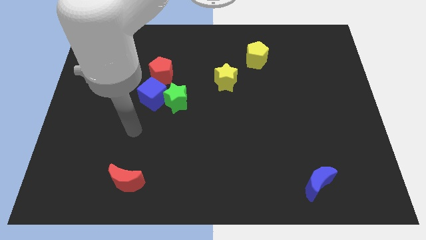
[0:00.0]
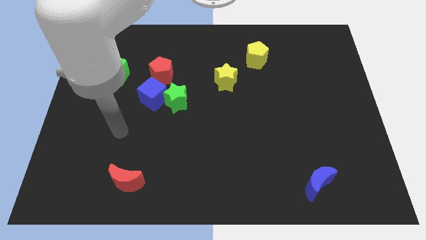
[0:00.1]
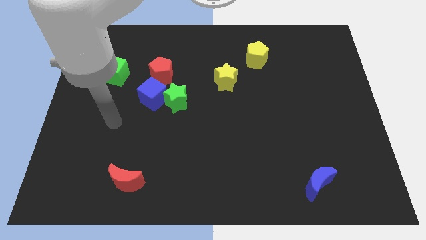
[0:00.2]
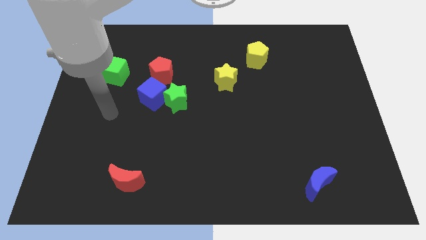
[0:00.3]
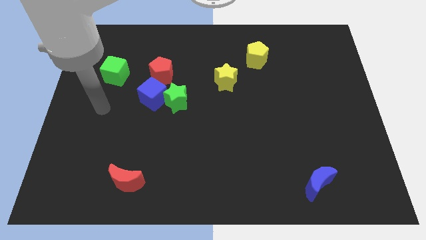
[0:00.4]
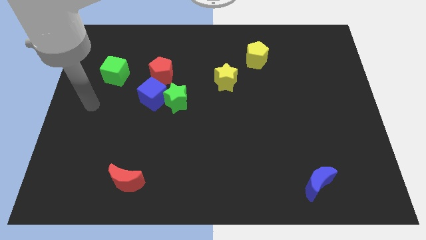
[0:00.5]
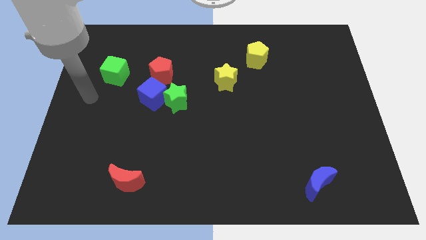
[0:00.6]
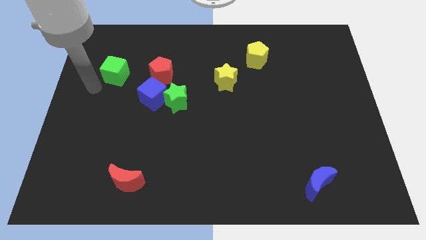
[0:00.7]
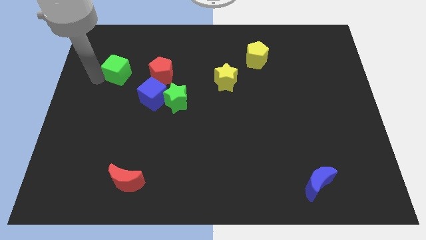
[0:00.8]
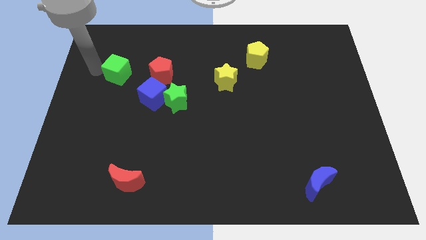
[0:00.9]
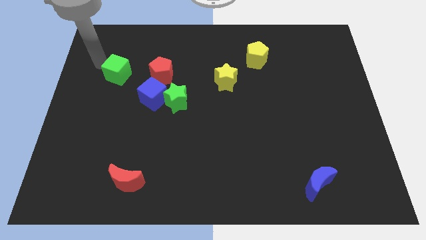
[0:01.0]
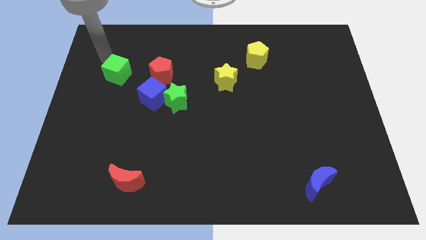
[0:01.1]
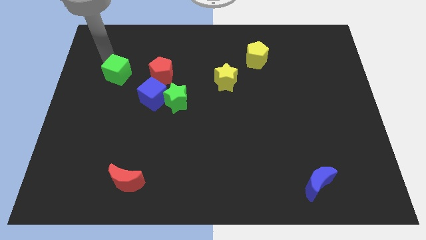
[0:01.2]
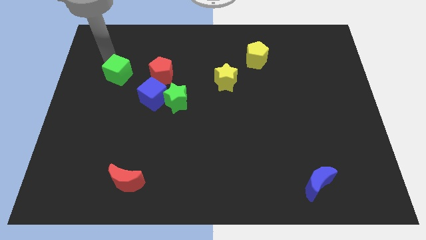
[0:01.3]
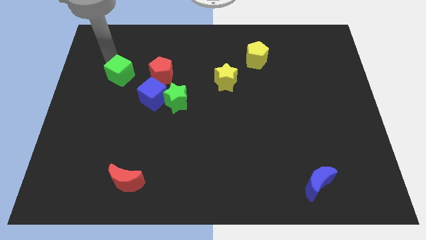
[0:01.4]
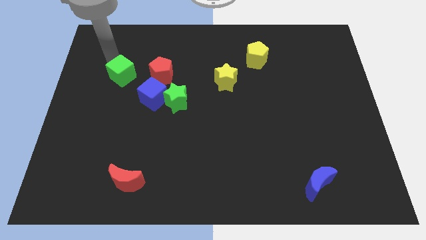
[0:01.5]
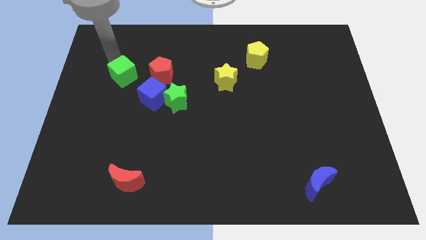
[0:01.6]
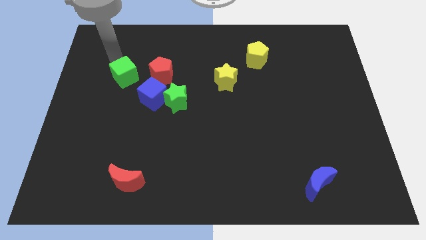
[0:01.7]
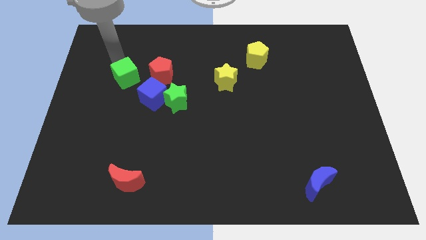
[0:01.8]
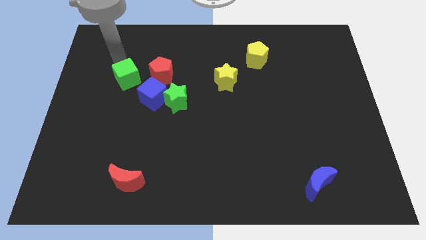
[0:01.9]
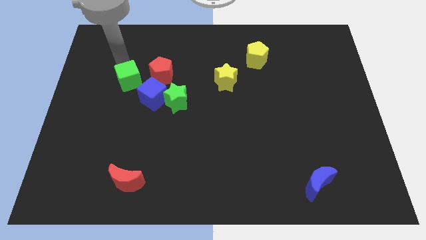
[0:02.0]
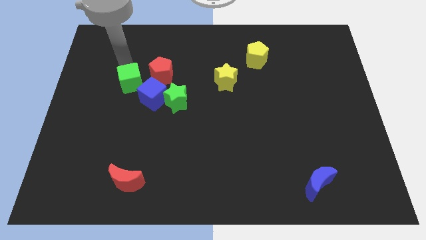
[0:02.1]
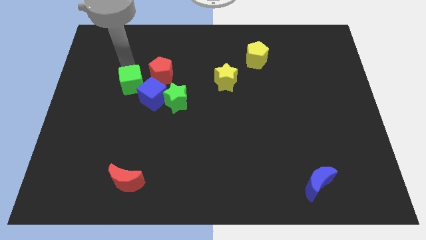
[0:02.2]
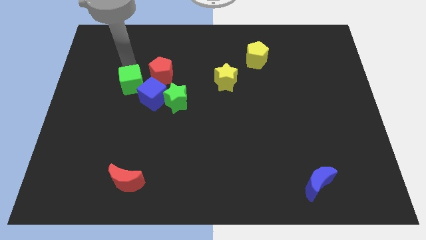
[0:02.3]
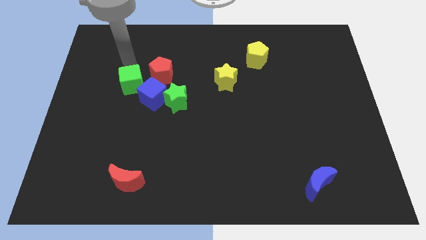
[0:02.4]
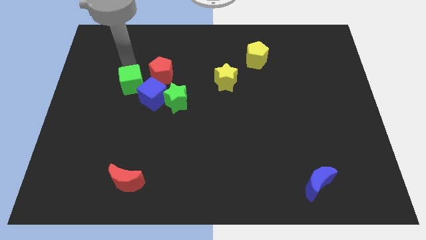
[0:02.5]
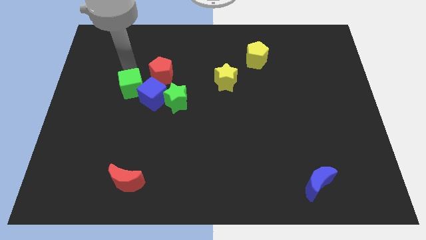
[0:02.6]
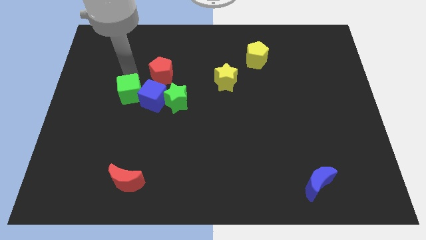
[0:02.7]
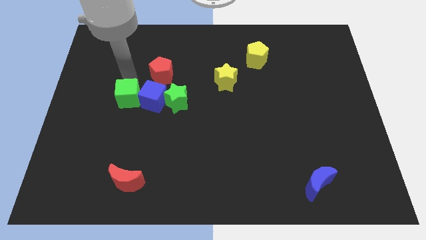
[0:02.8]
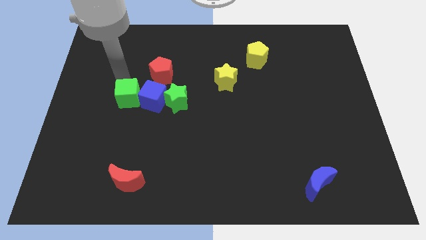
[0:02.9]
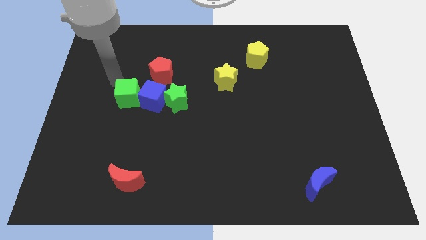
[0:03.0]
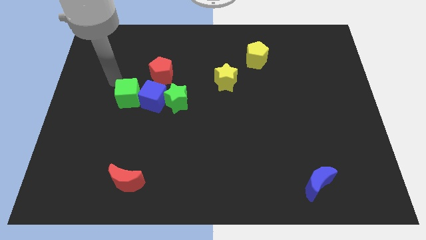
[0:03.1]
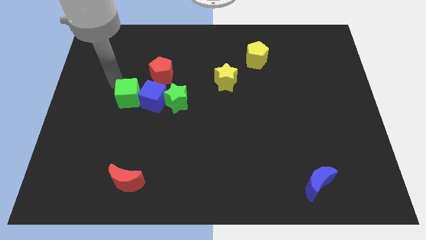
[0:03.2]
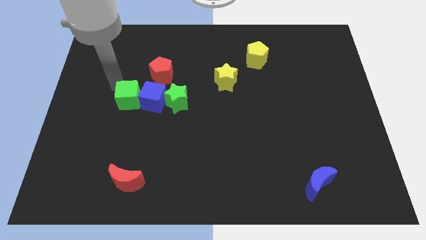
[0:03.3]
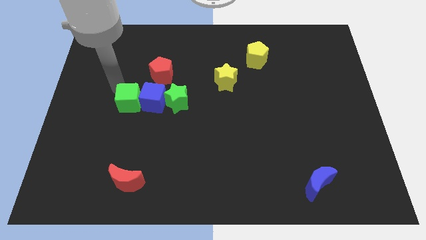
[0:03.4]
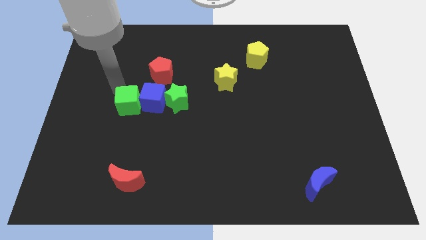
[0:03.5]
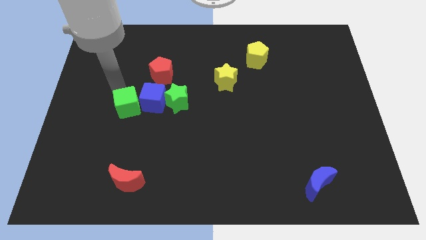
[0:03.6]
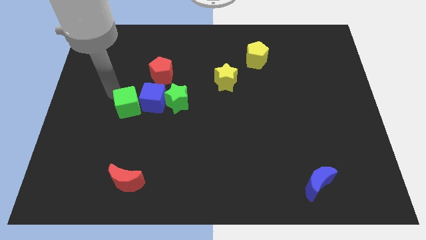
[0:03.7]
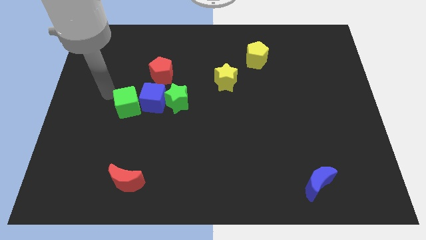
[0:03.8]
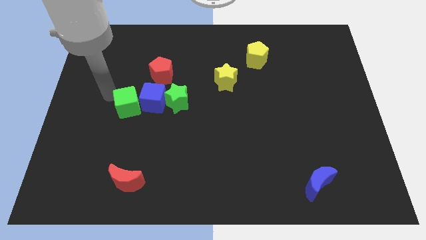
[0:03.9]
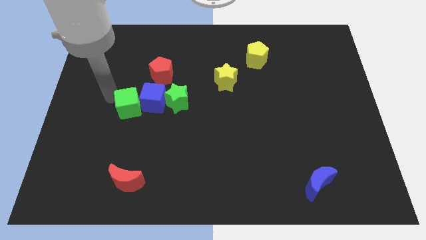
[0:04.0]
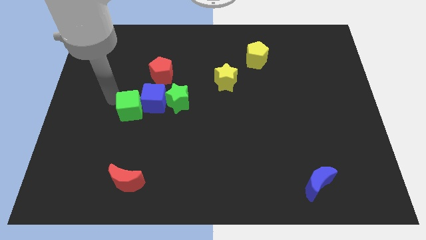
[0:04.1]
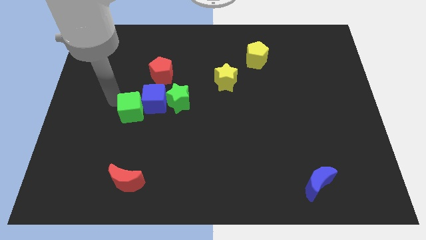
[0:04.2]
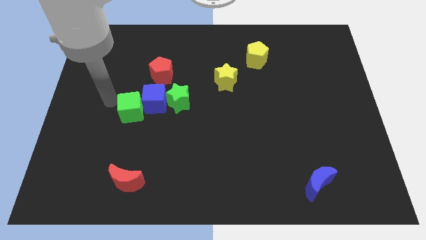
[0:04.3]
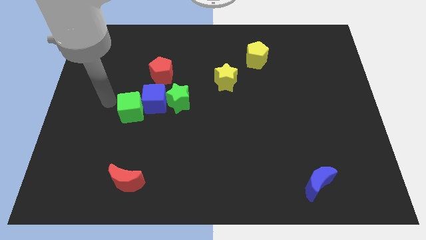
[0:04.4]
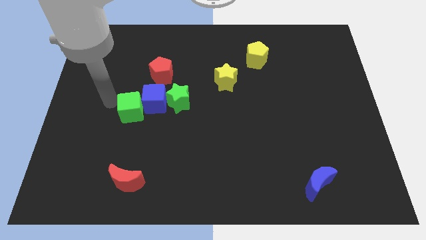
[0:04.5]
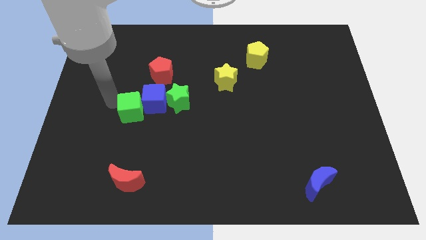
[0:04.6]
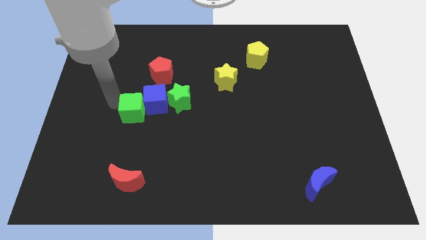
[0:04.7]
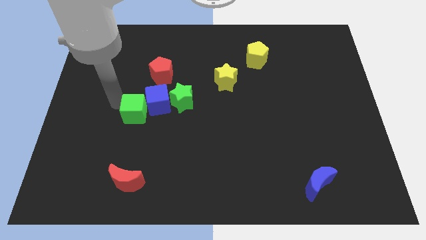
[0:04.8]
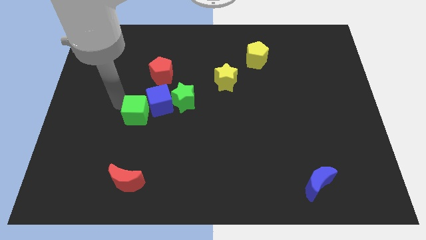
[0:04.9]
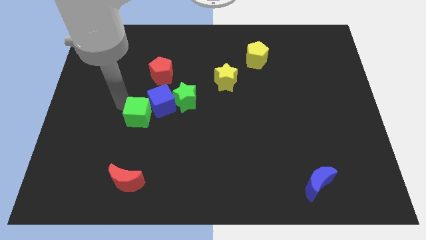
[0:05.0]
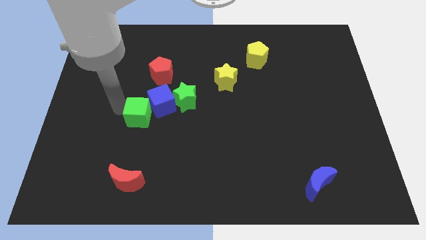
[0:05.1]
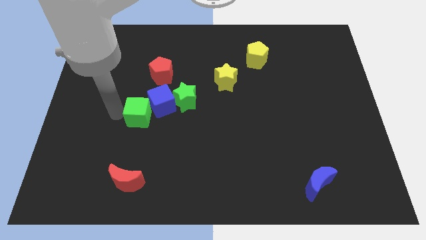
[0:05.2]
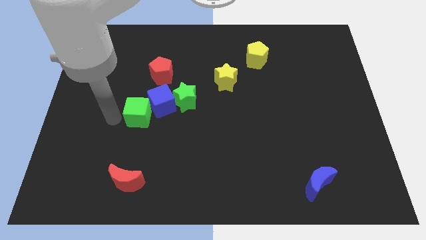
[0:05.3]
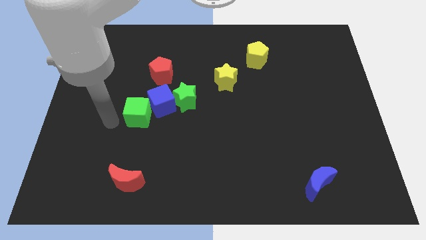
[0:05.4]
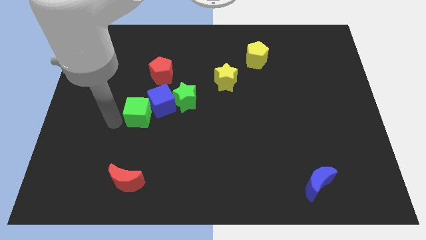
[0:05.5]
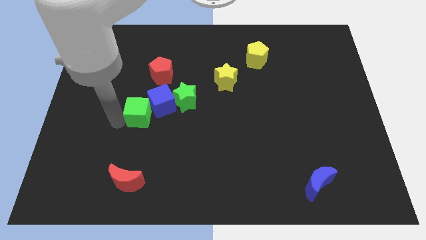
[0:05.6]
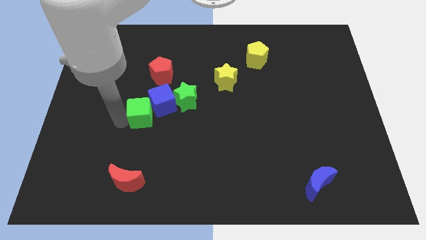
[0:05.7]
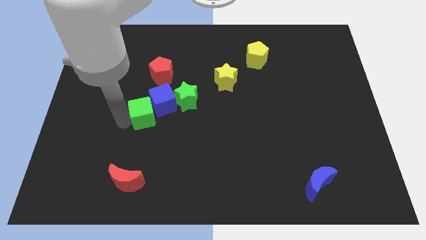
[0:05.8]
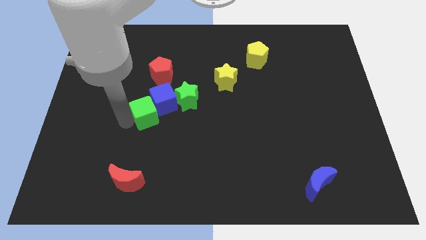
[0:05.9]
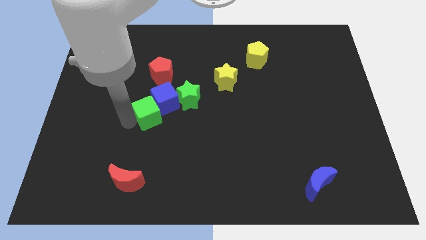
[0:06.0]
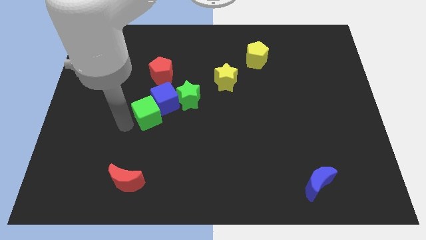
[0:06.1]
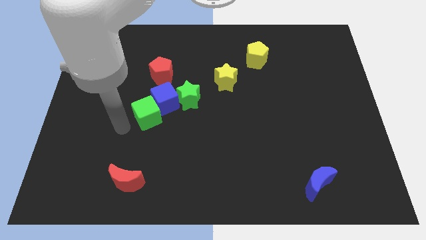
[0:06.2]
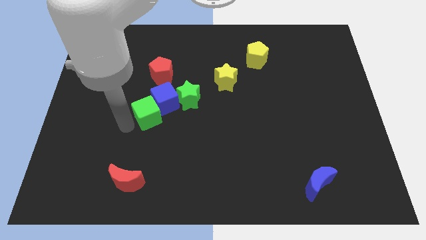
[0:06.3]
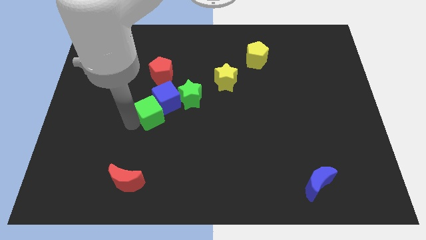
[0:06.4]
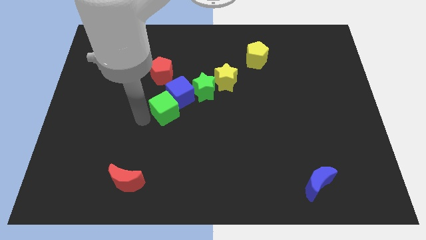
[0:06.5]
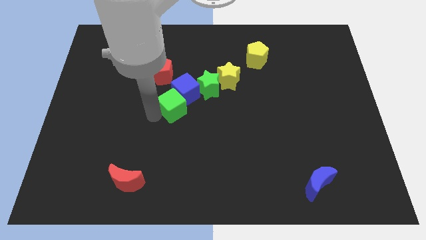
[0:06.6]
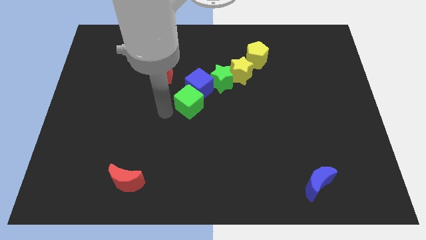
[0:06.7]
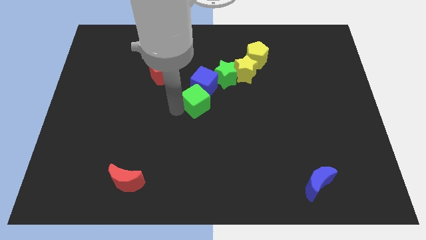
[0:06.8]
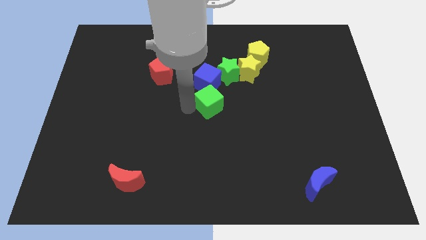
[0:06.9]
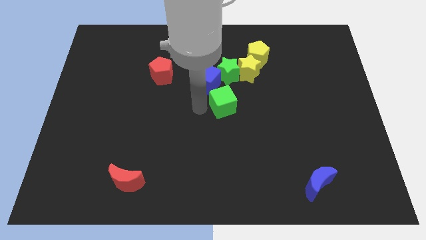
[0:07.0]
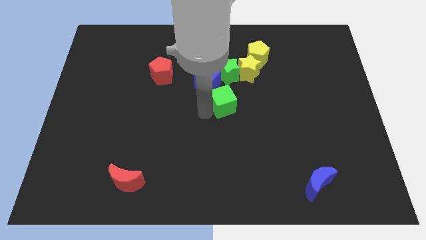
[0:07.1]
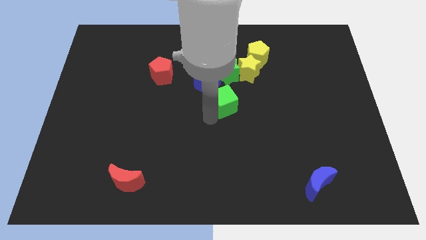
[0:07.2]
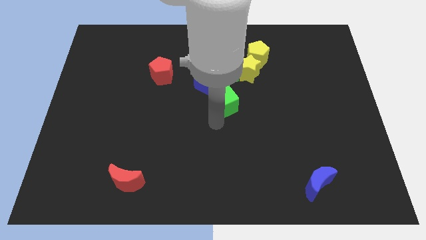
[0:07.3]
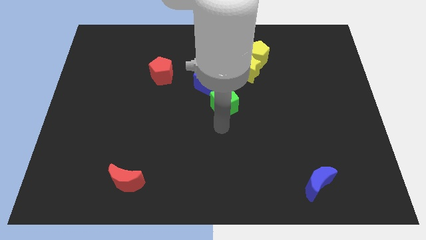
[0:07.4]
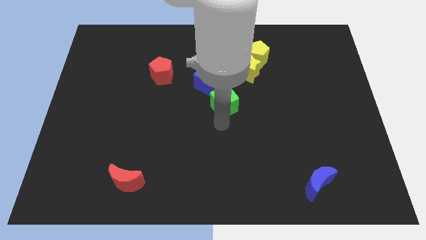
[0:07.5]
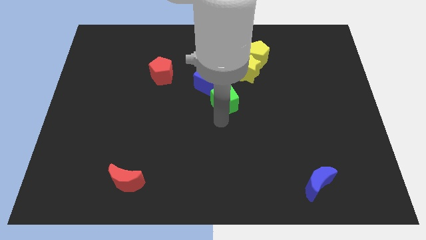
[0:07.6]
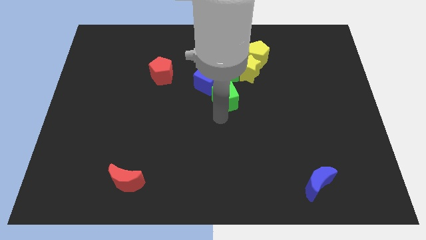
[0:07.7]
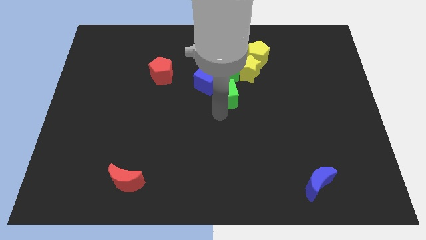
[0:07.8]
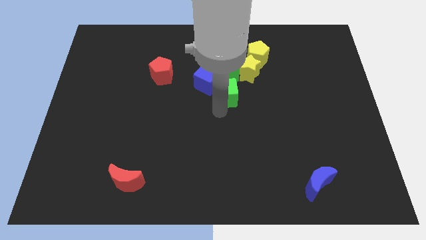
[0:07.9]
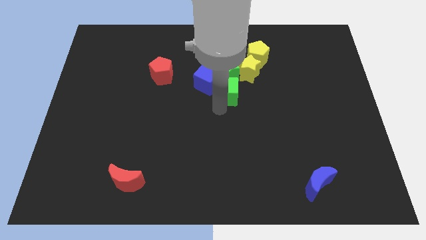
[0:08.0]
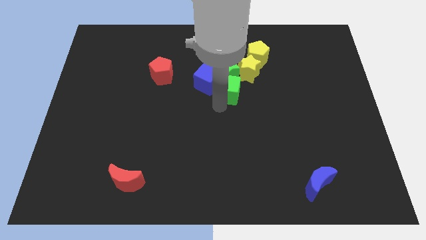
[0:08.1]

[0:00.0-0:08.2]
put the green cube close to the green star
